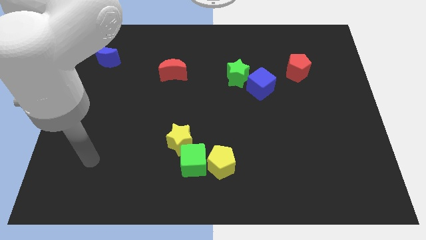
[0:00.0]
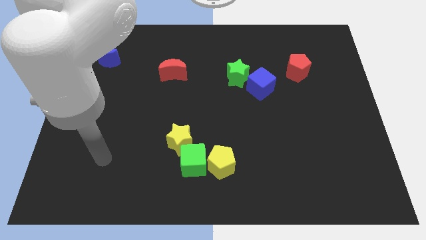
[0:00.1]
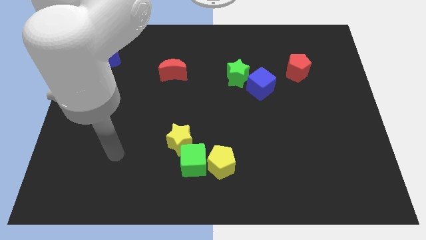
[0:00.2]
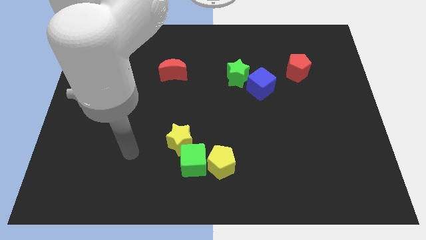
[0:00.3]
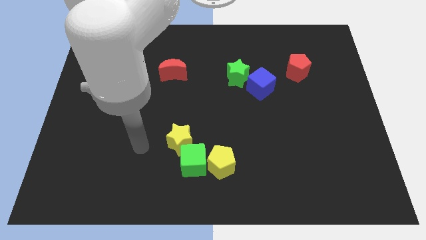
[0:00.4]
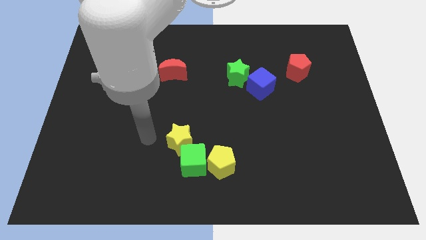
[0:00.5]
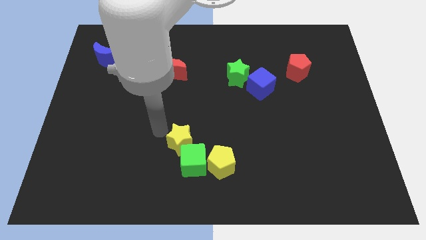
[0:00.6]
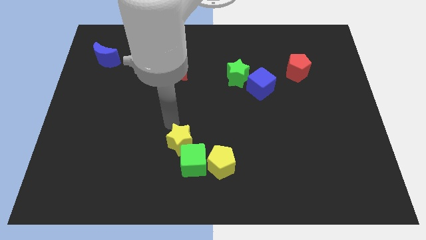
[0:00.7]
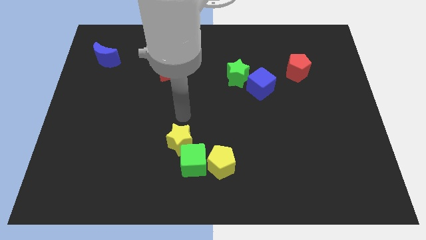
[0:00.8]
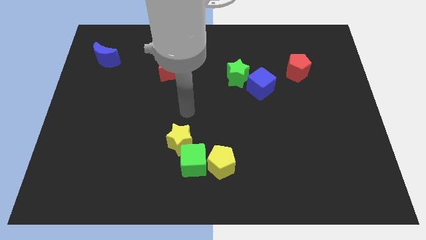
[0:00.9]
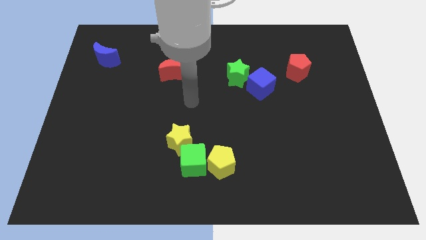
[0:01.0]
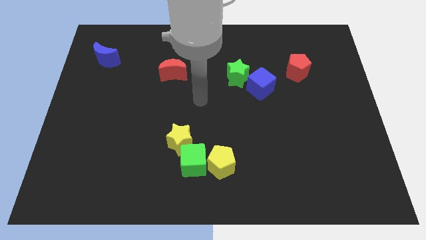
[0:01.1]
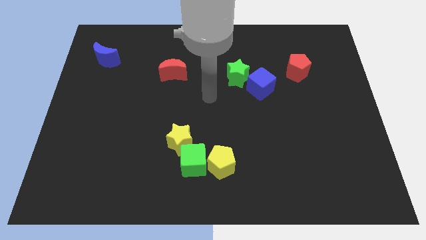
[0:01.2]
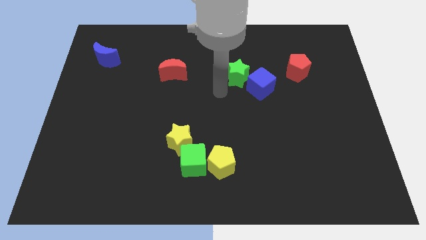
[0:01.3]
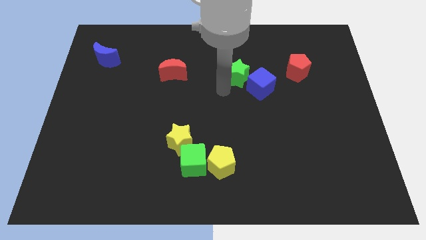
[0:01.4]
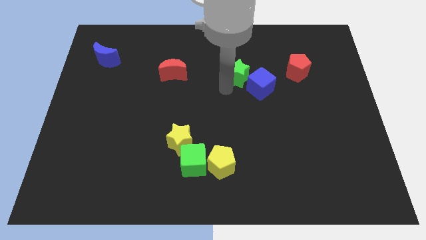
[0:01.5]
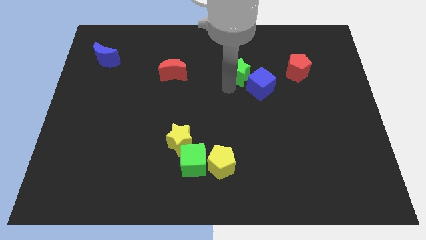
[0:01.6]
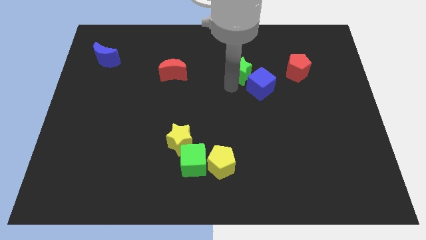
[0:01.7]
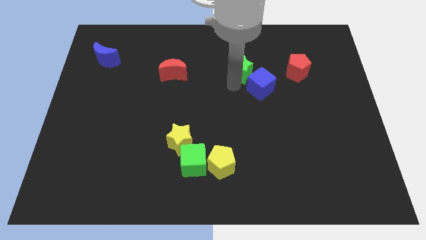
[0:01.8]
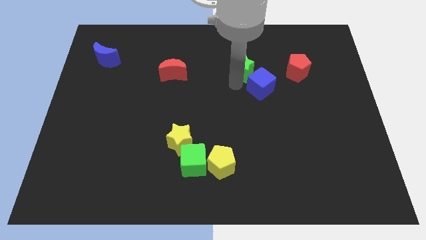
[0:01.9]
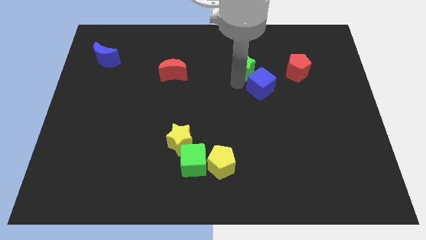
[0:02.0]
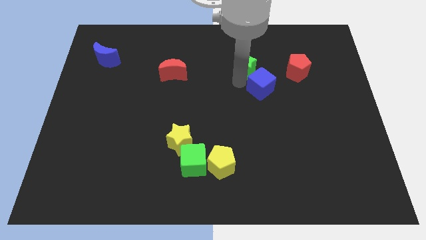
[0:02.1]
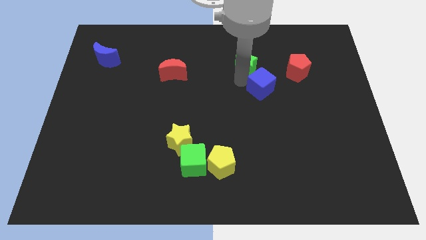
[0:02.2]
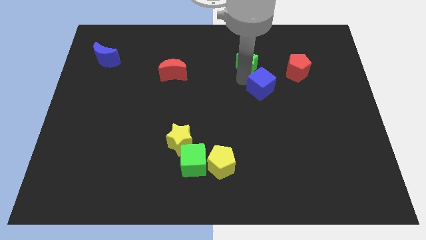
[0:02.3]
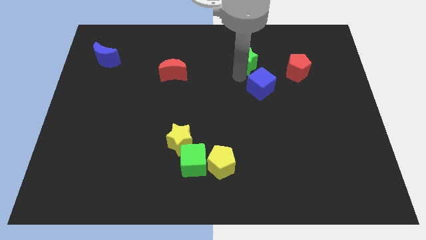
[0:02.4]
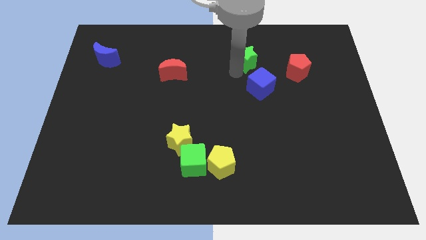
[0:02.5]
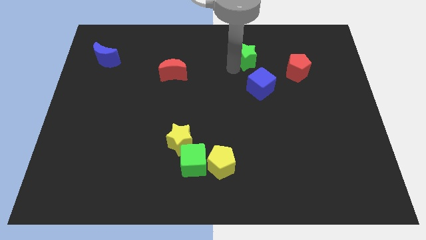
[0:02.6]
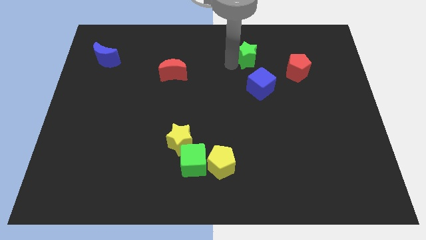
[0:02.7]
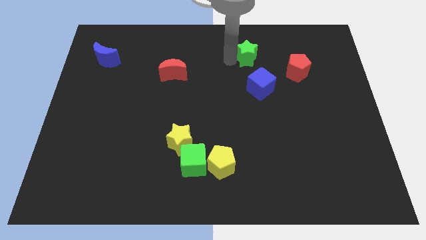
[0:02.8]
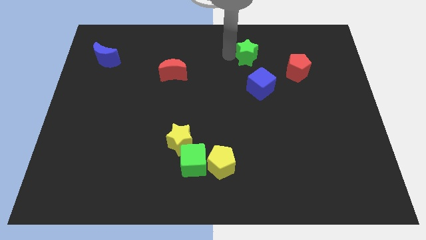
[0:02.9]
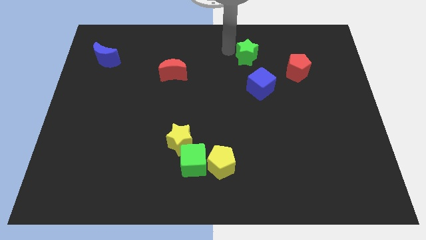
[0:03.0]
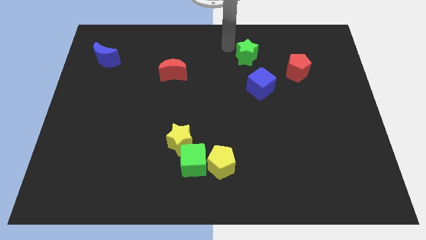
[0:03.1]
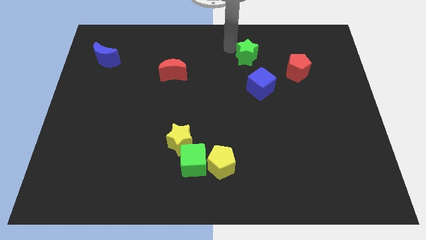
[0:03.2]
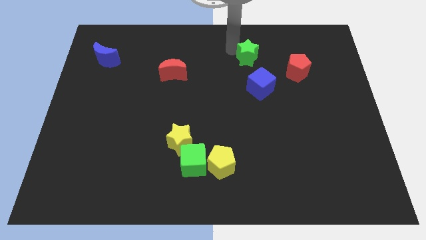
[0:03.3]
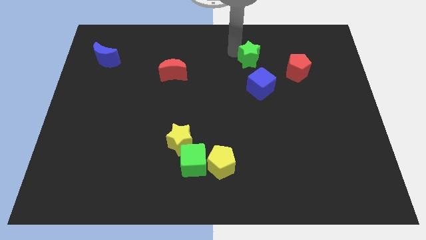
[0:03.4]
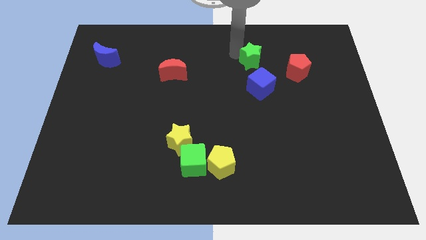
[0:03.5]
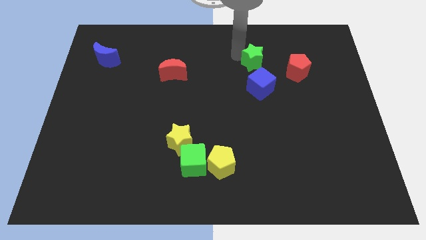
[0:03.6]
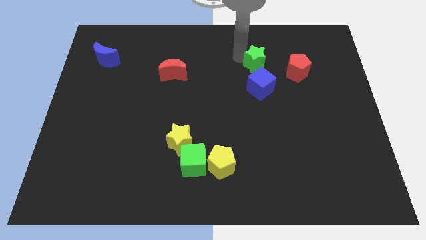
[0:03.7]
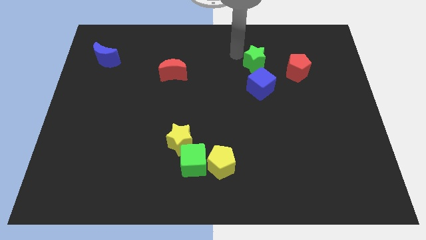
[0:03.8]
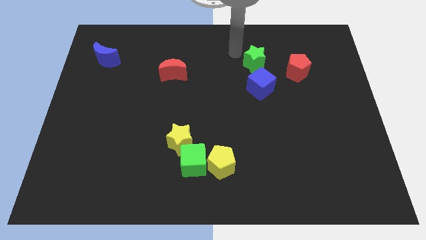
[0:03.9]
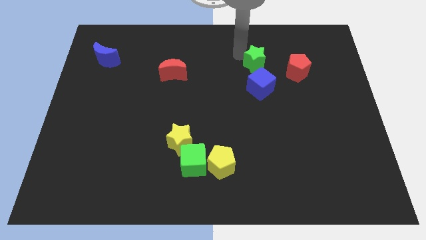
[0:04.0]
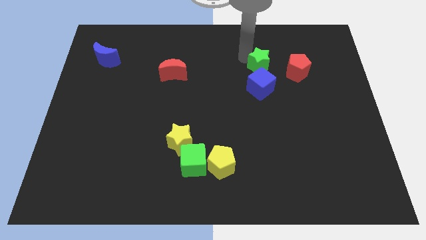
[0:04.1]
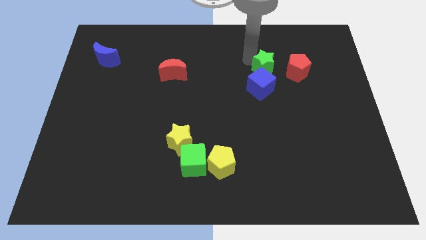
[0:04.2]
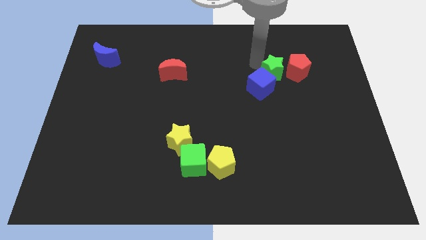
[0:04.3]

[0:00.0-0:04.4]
slightly move the green star to the right

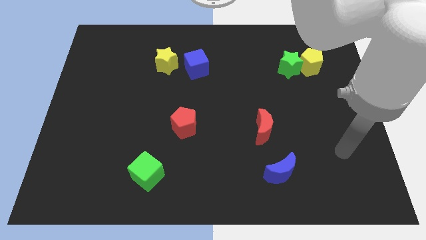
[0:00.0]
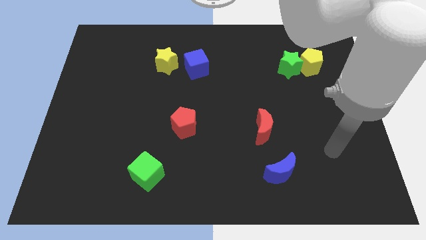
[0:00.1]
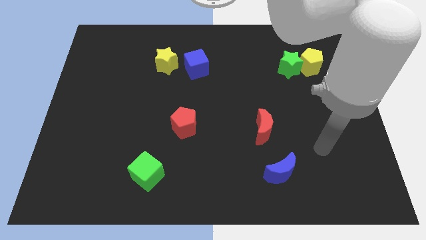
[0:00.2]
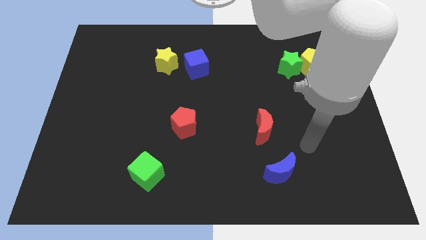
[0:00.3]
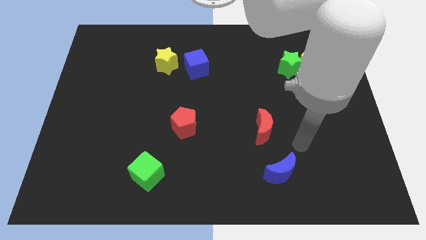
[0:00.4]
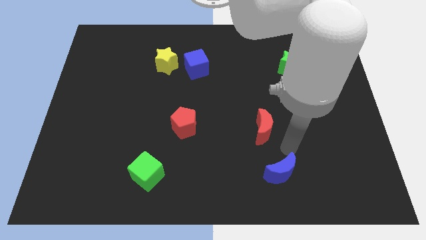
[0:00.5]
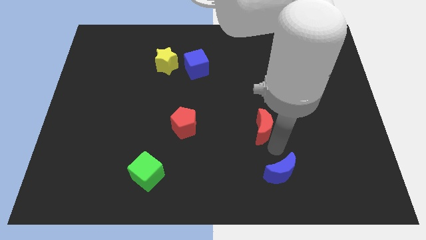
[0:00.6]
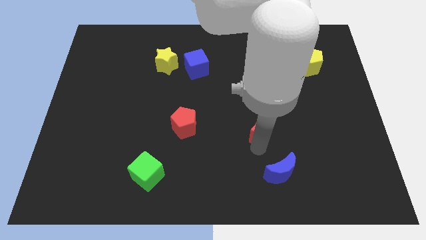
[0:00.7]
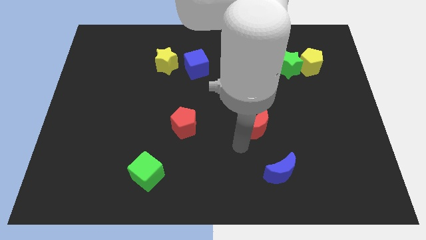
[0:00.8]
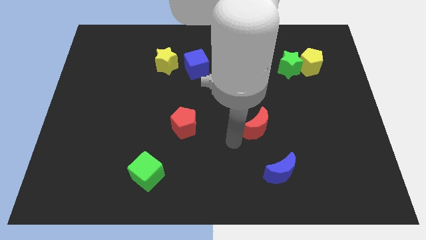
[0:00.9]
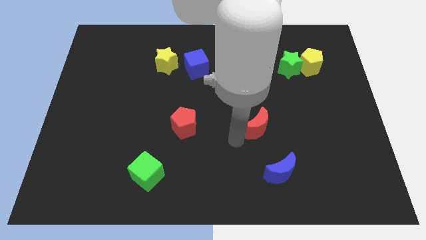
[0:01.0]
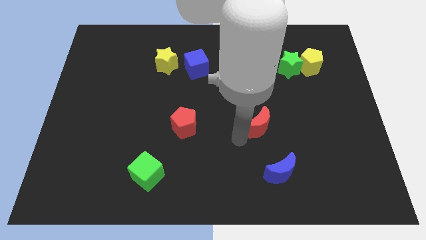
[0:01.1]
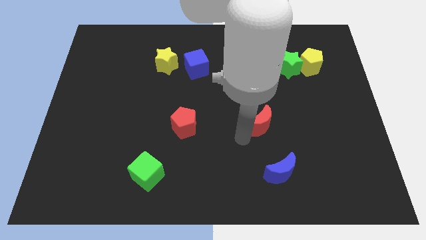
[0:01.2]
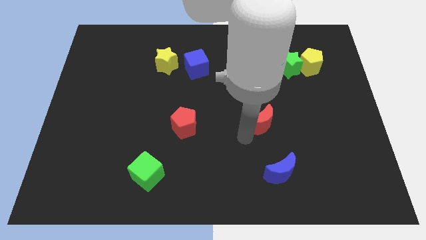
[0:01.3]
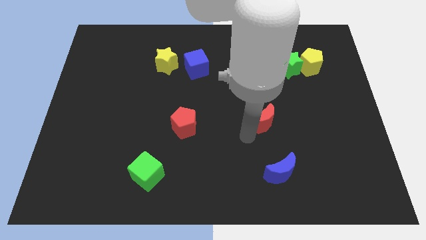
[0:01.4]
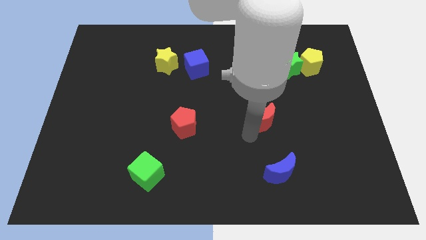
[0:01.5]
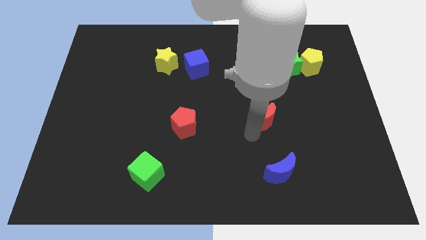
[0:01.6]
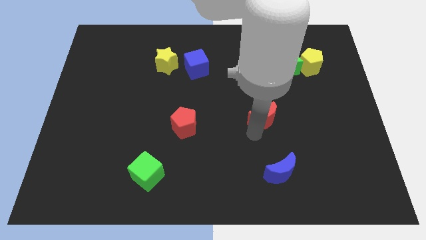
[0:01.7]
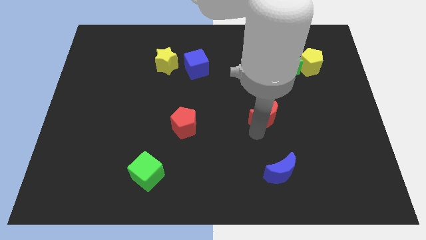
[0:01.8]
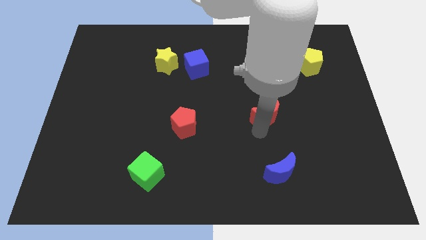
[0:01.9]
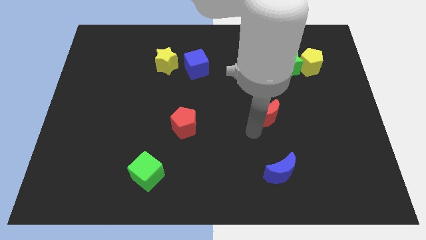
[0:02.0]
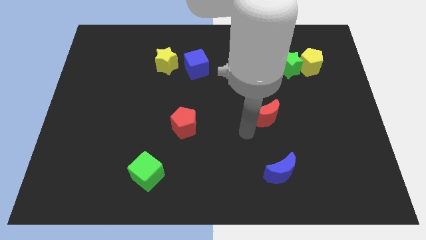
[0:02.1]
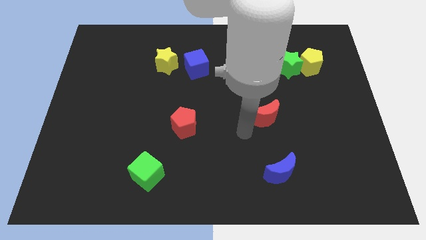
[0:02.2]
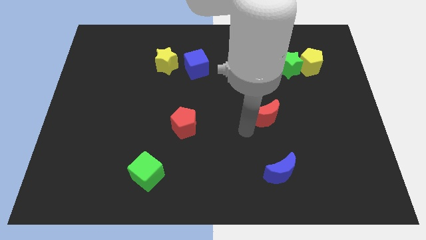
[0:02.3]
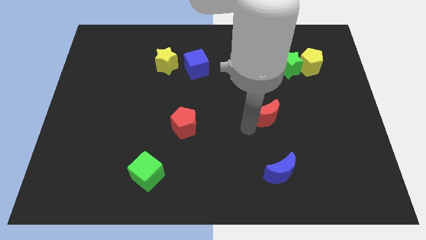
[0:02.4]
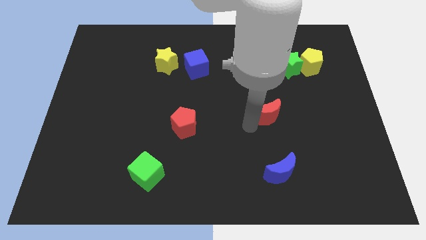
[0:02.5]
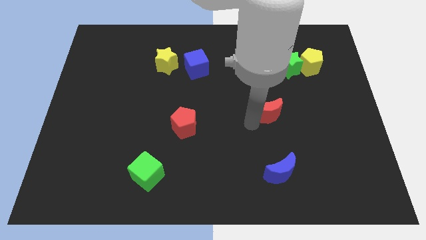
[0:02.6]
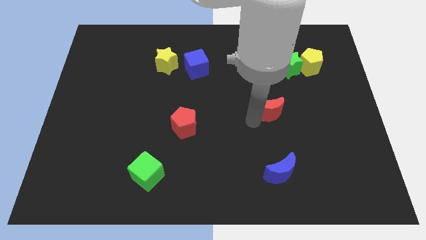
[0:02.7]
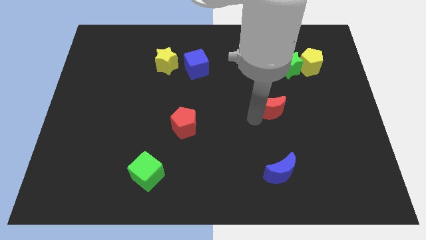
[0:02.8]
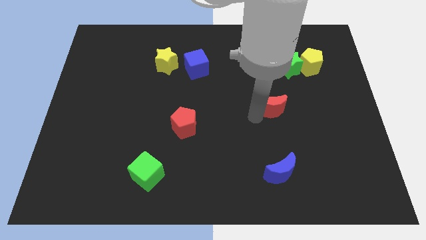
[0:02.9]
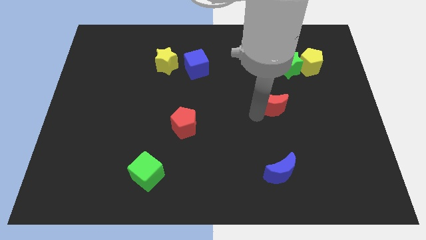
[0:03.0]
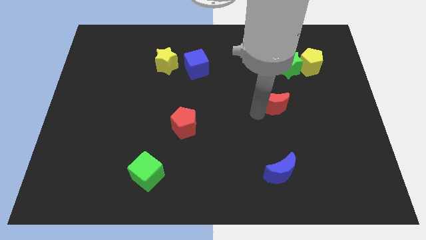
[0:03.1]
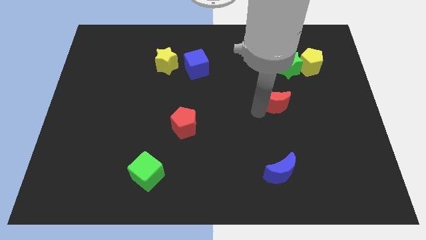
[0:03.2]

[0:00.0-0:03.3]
slightly push the red moon upwards and then to the right
